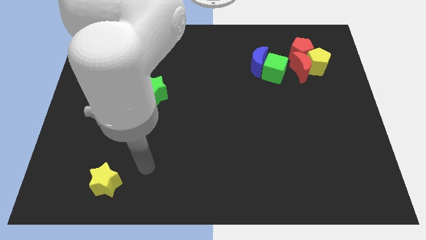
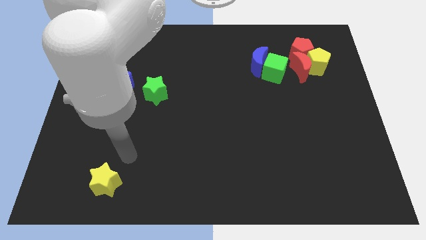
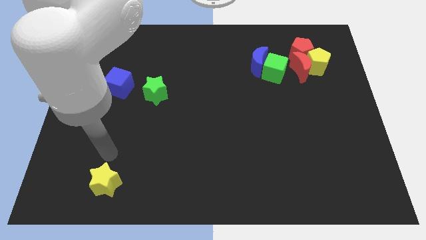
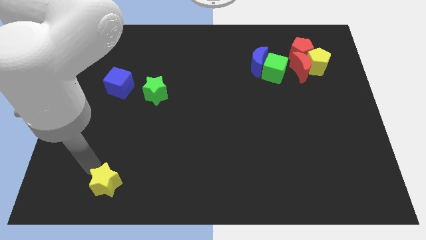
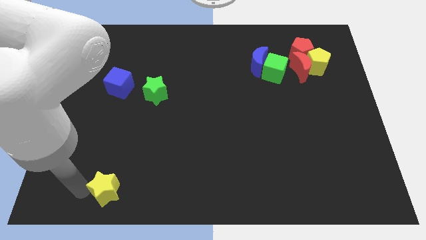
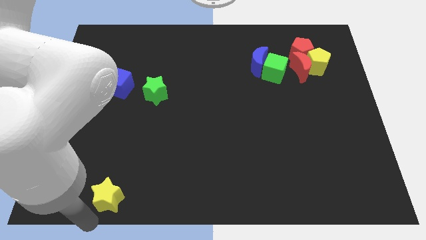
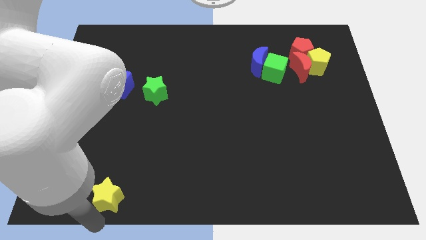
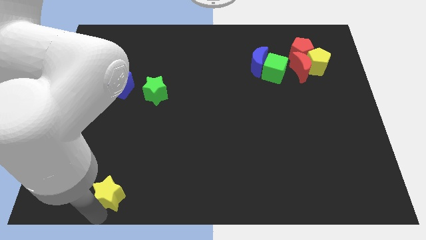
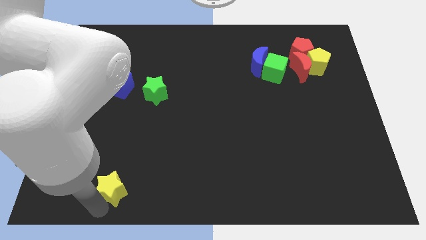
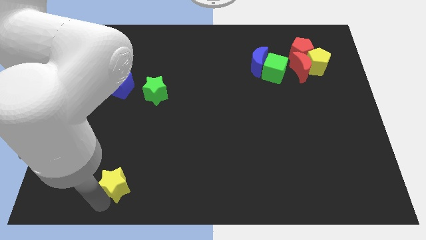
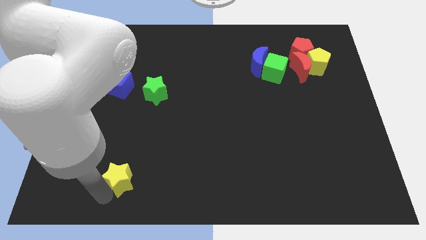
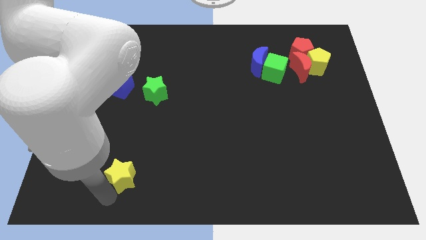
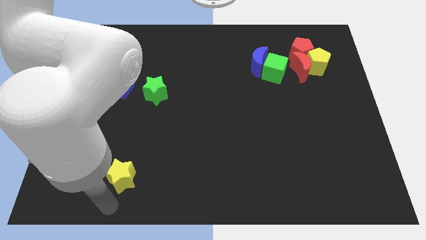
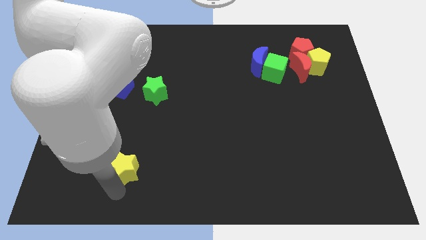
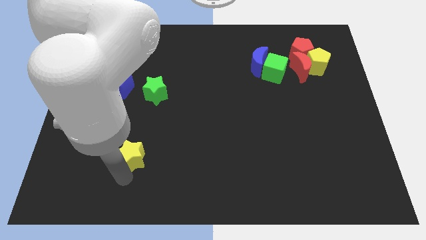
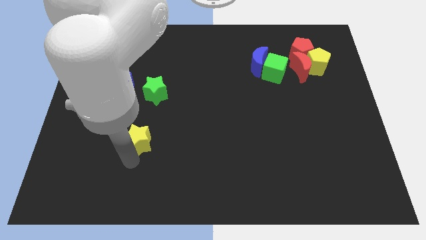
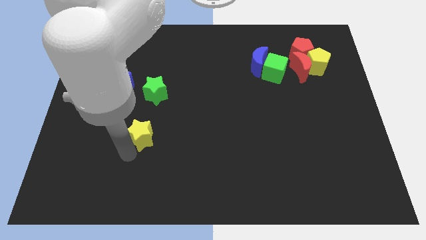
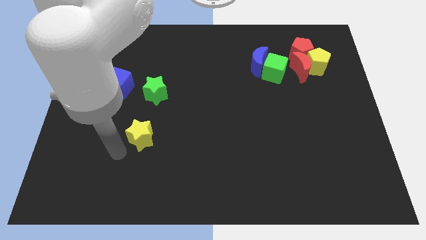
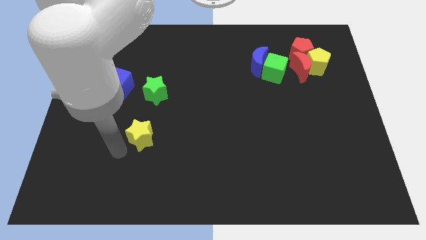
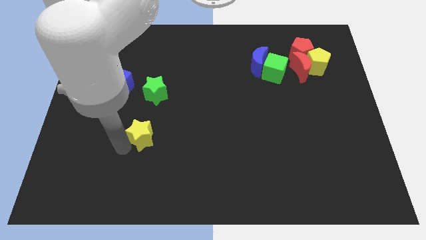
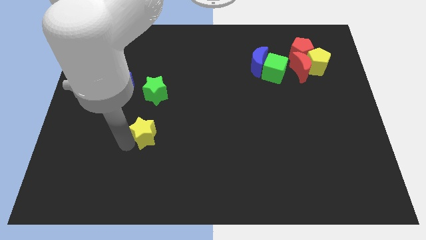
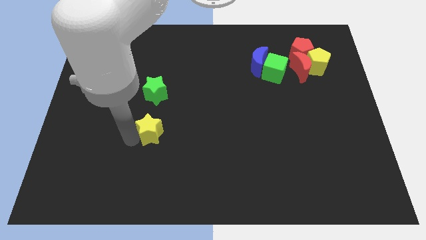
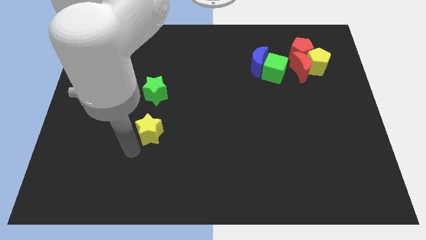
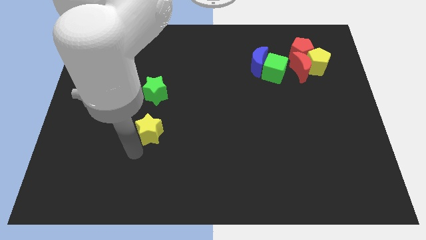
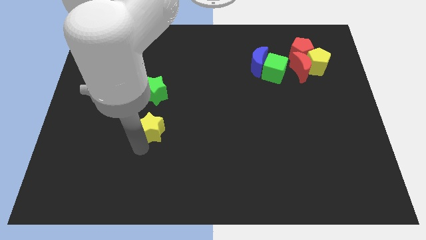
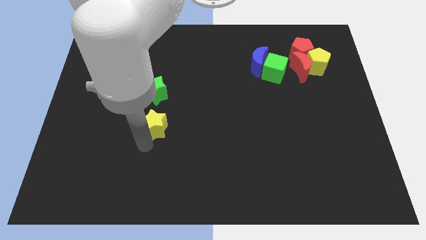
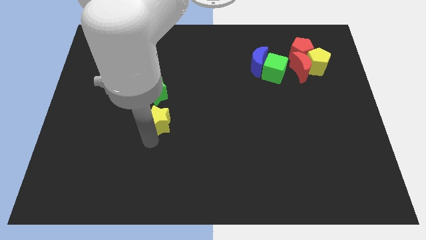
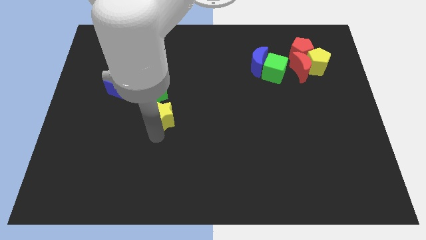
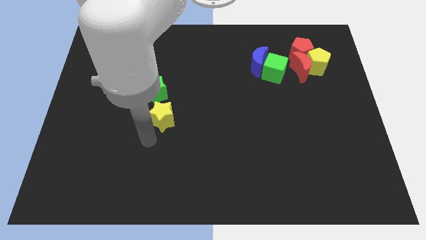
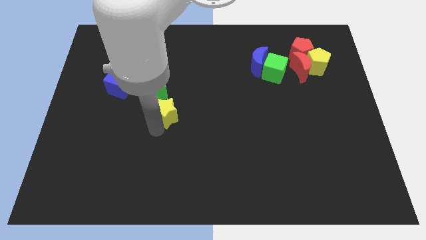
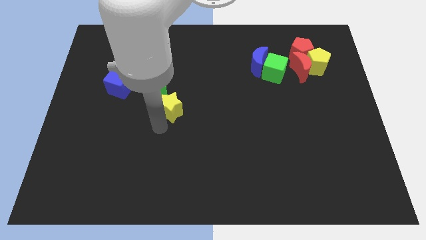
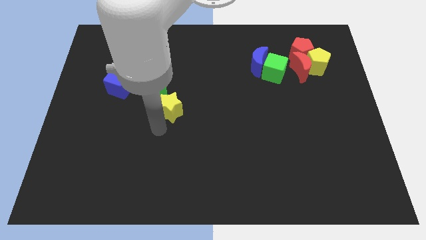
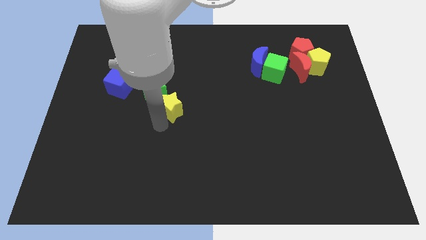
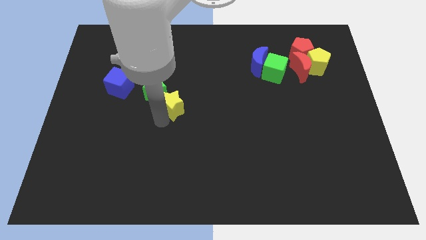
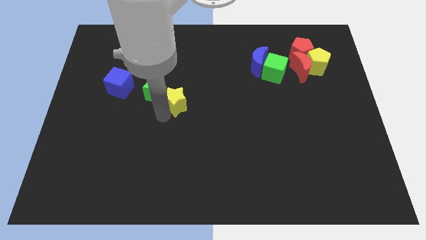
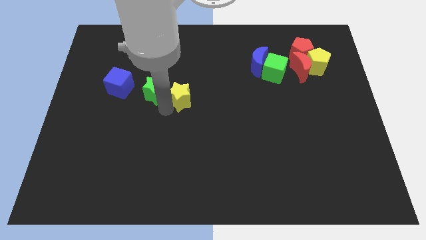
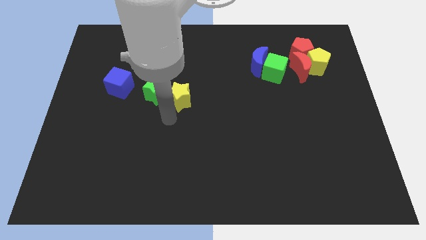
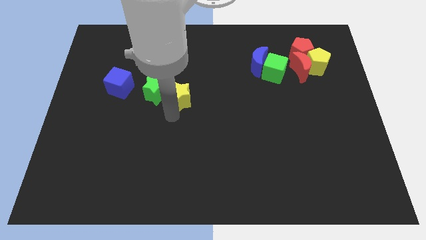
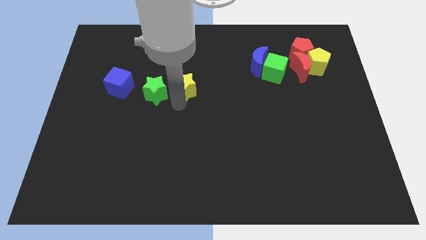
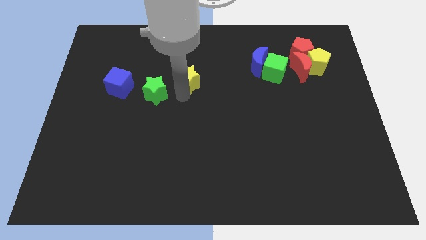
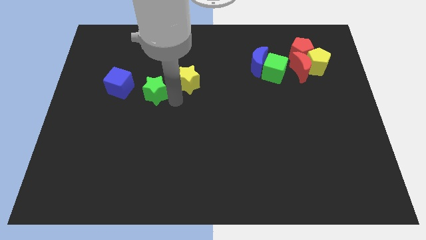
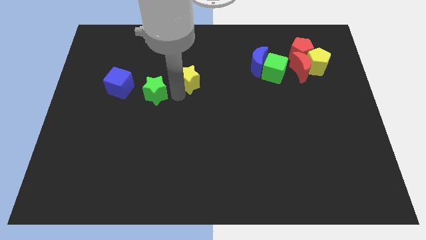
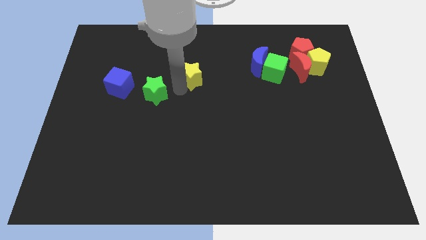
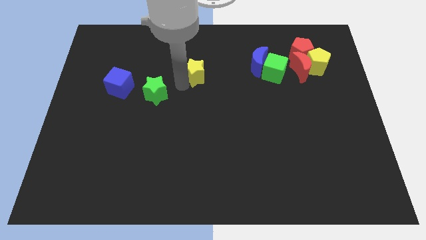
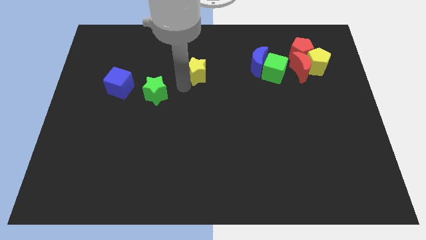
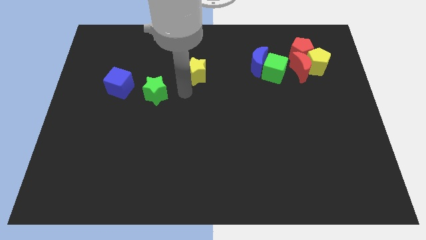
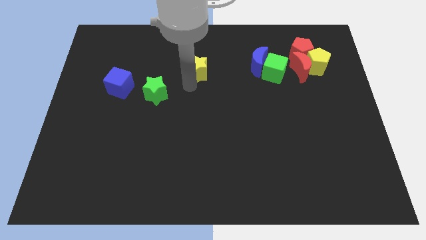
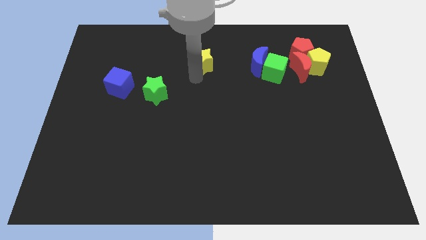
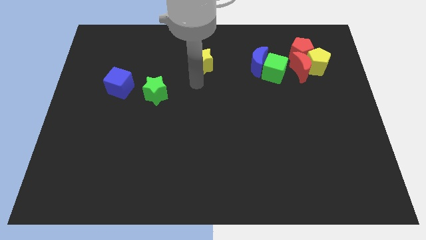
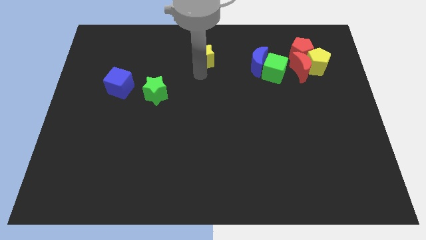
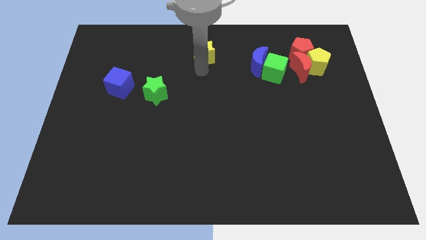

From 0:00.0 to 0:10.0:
put the yellow star to the top side

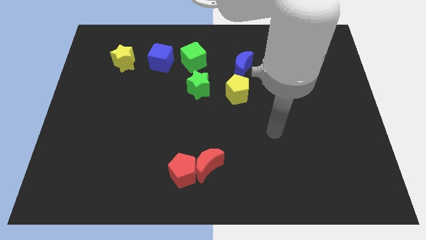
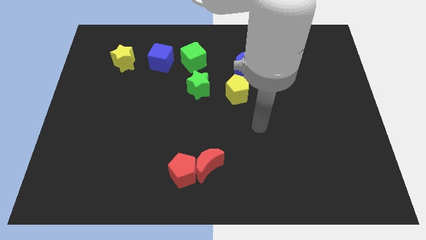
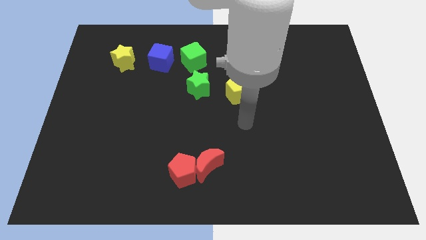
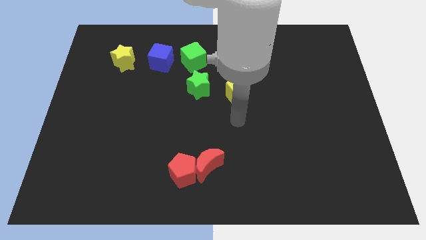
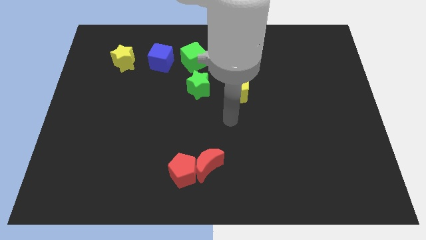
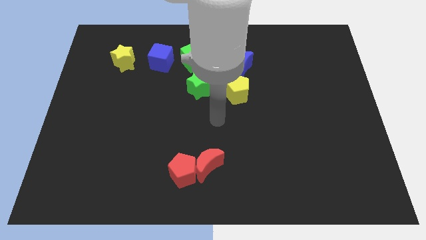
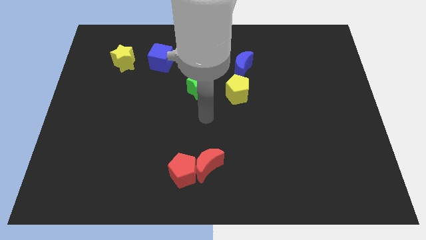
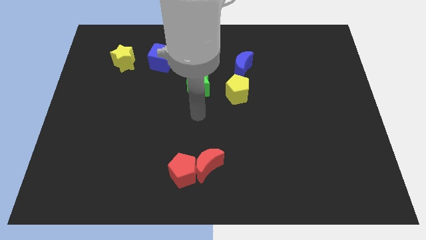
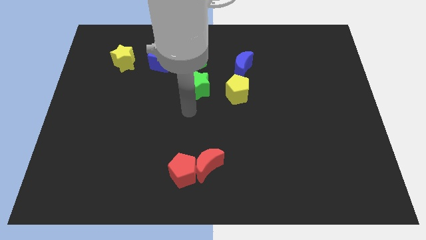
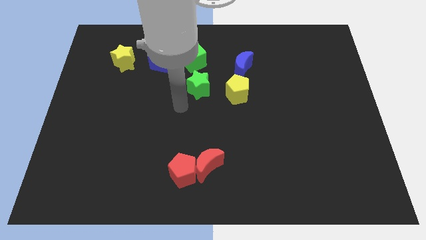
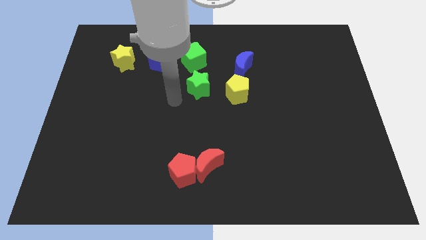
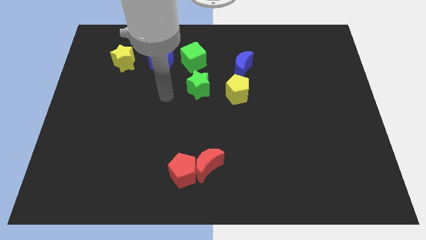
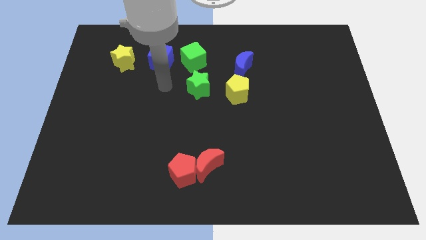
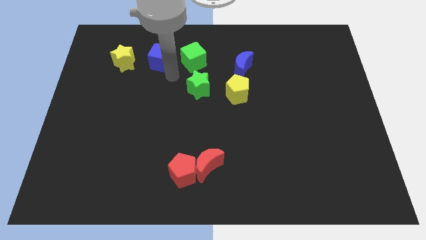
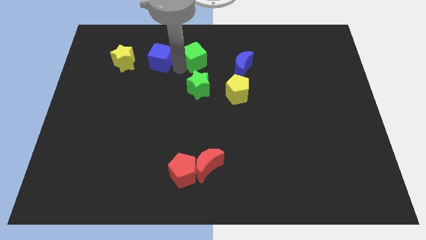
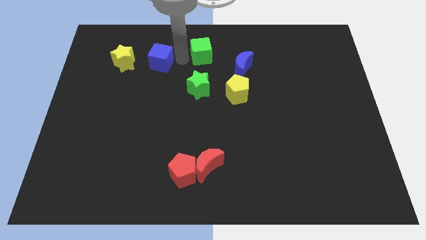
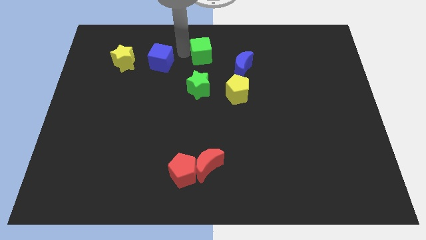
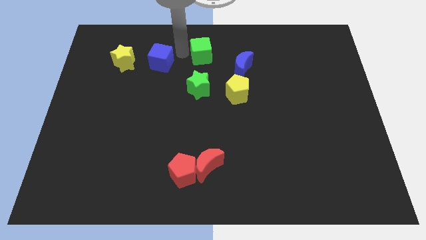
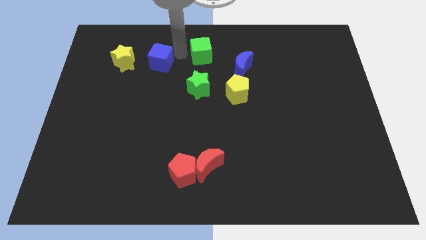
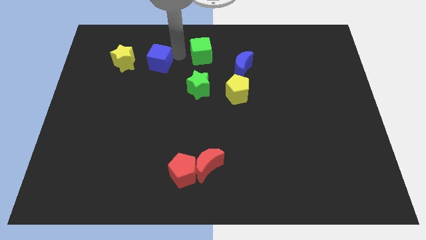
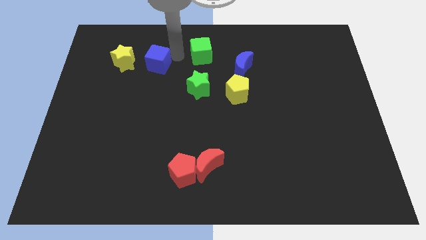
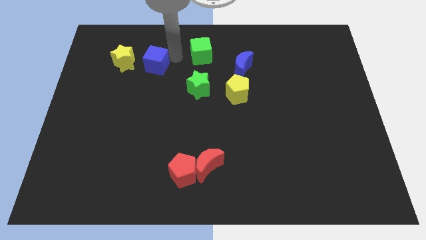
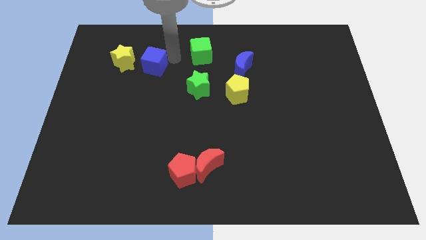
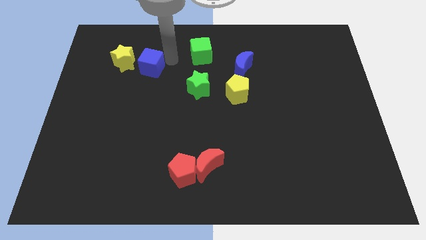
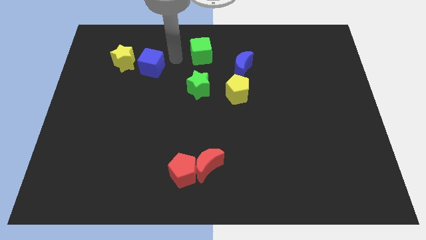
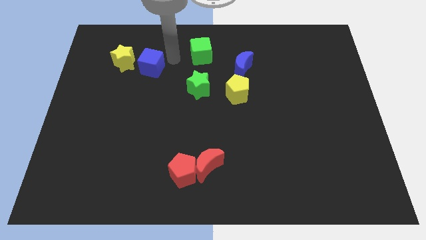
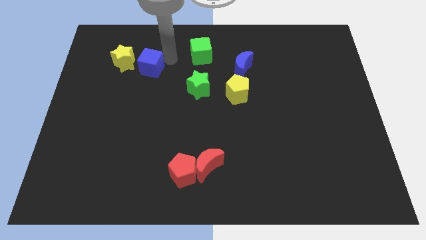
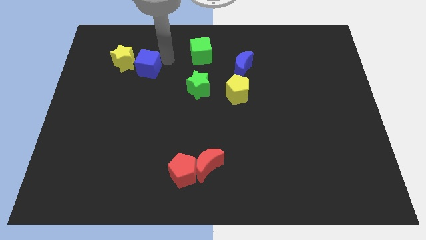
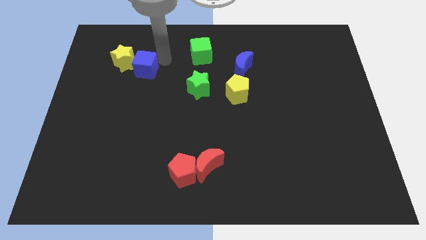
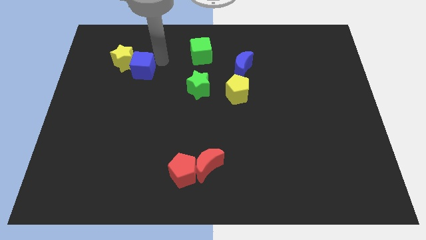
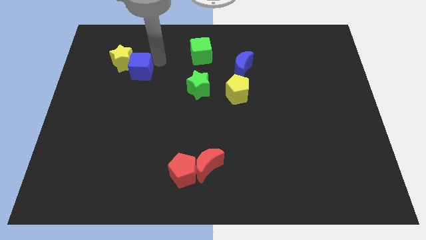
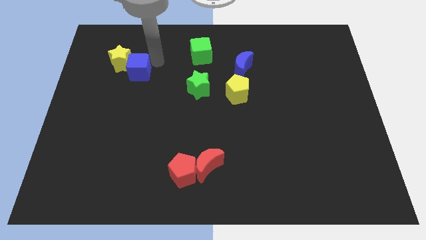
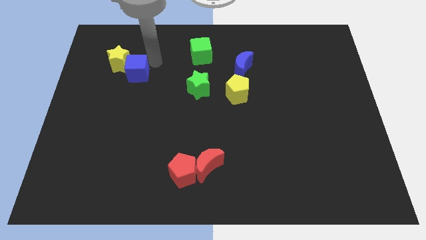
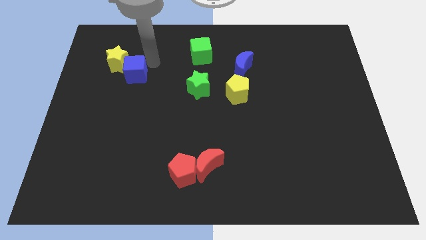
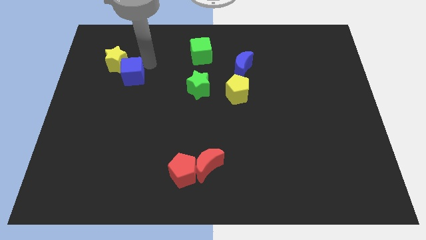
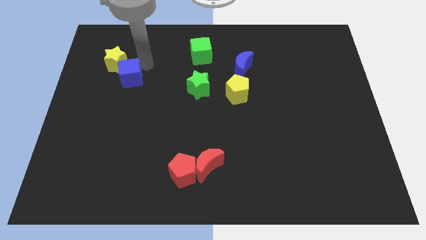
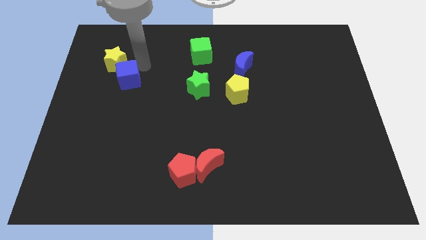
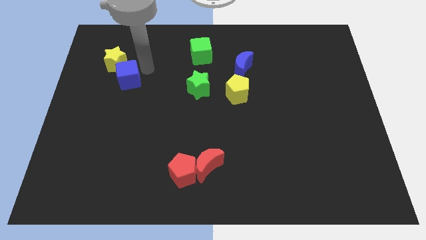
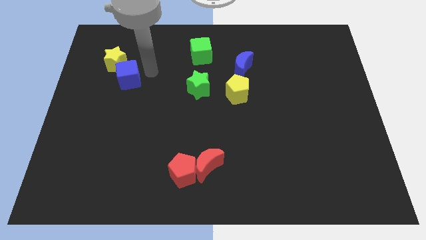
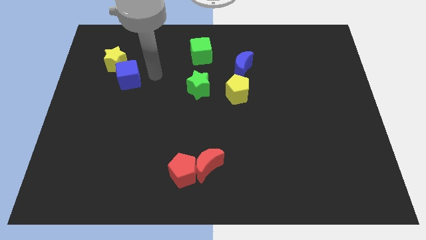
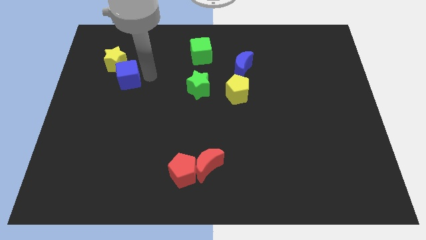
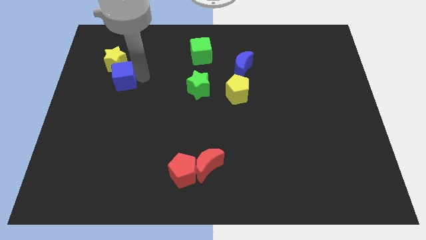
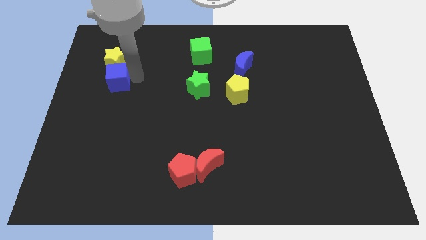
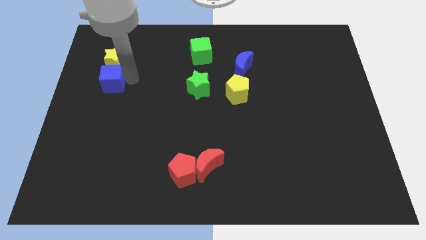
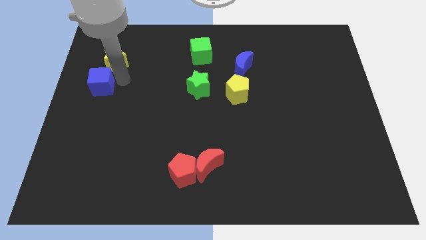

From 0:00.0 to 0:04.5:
push the blue cube to the left side of the board
